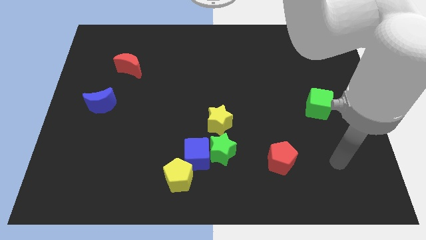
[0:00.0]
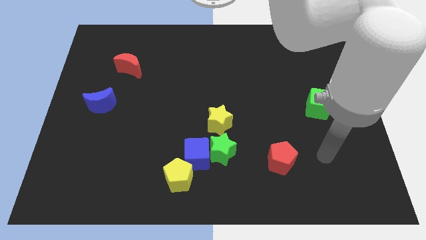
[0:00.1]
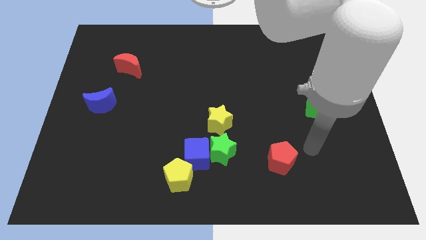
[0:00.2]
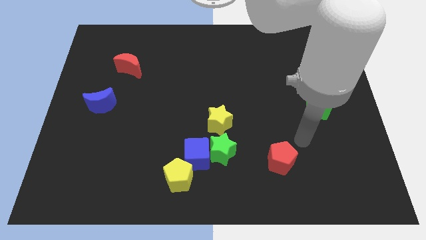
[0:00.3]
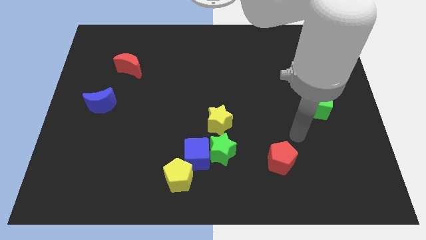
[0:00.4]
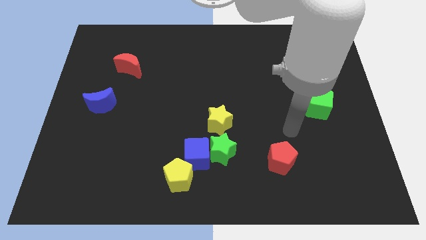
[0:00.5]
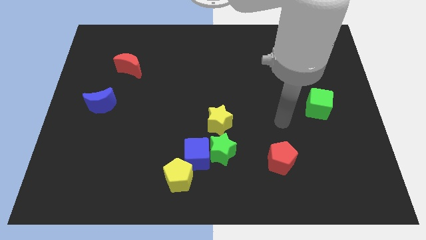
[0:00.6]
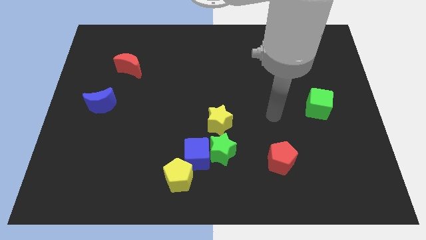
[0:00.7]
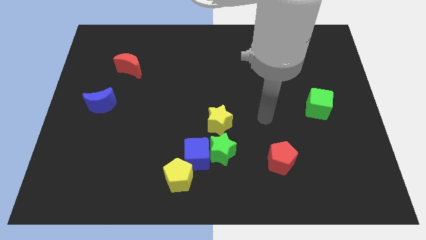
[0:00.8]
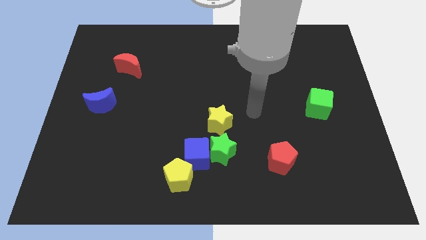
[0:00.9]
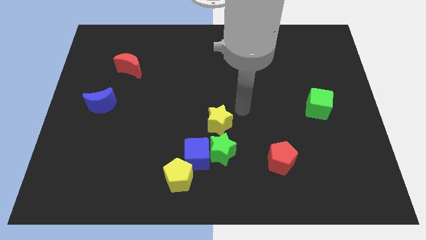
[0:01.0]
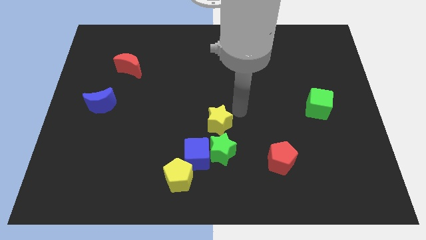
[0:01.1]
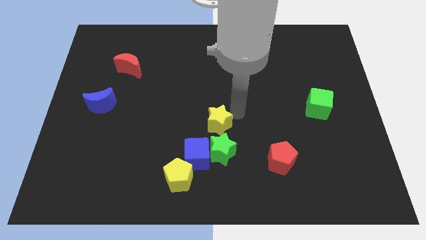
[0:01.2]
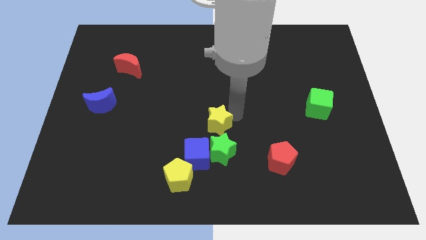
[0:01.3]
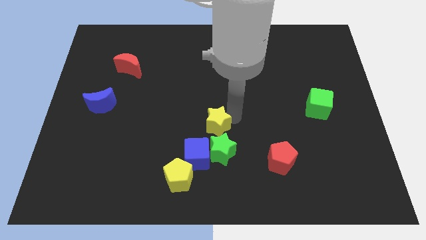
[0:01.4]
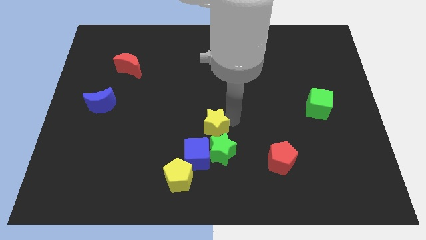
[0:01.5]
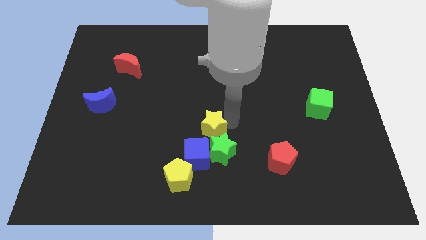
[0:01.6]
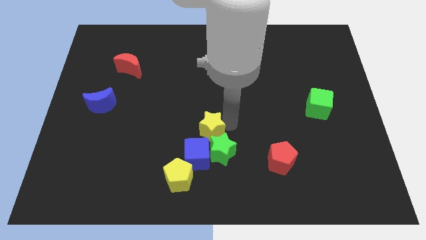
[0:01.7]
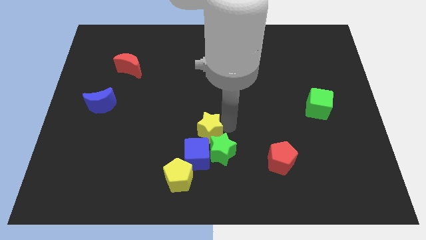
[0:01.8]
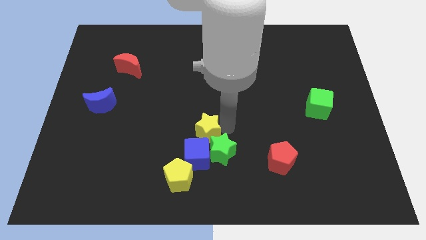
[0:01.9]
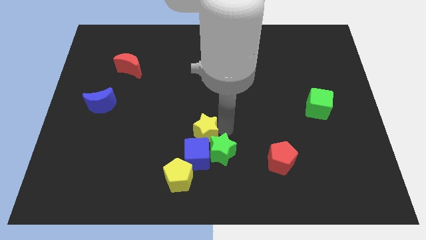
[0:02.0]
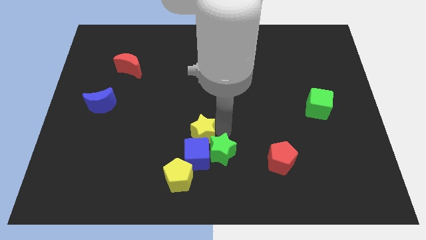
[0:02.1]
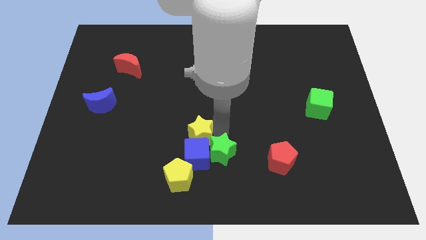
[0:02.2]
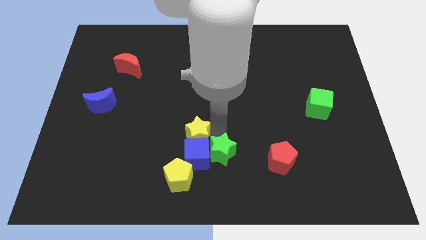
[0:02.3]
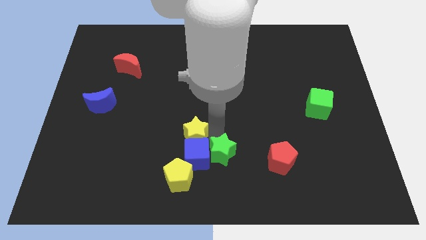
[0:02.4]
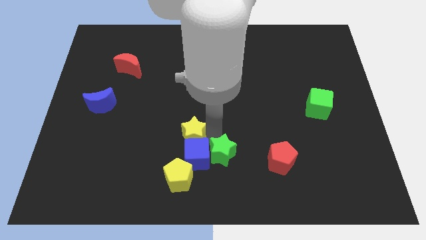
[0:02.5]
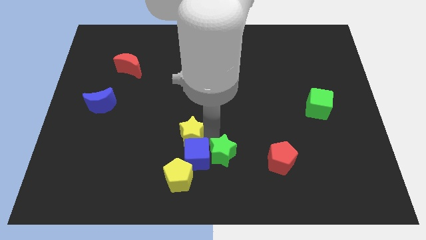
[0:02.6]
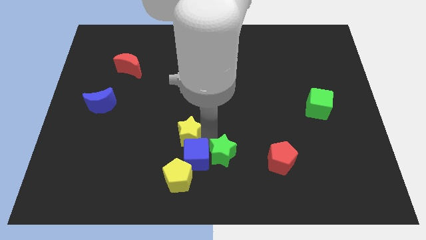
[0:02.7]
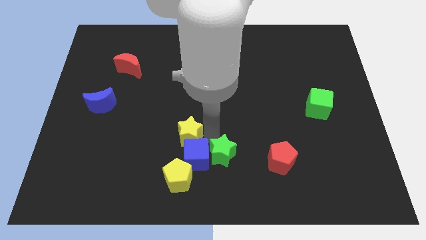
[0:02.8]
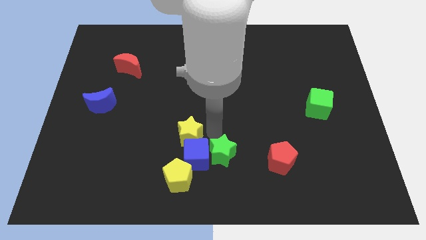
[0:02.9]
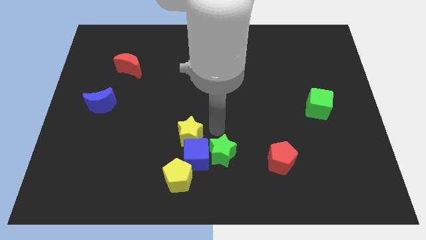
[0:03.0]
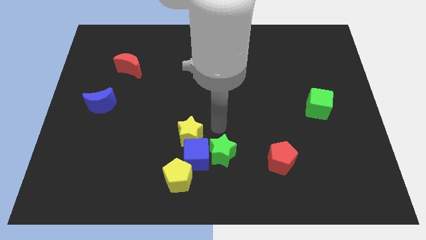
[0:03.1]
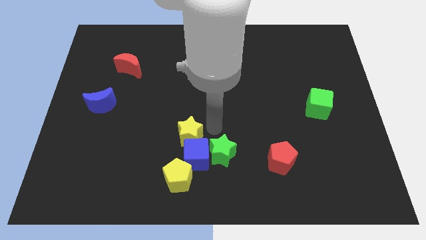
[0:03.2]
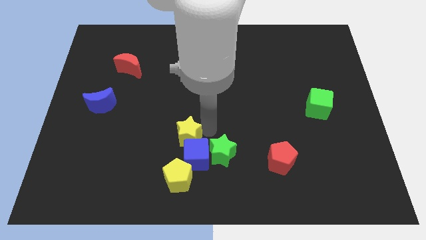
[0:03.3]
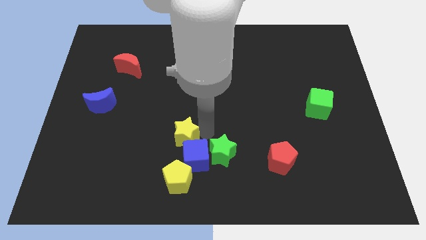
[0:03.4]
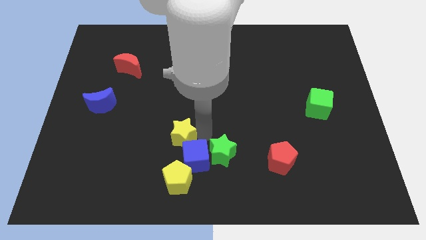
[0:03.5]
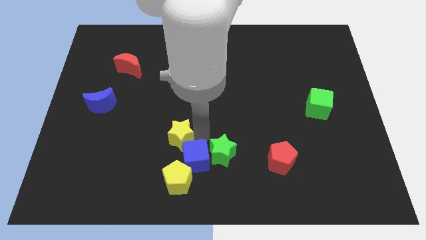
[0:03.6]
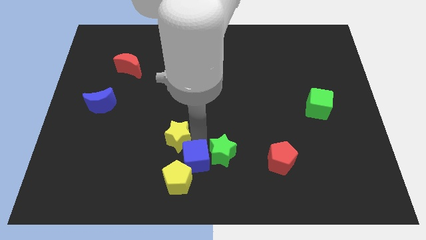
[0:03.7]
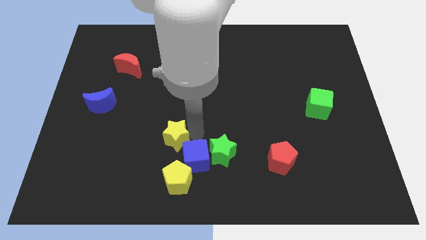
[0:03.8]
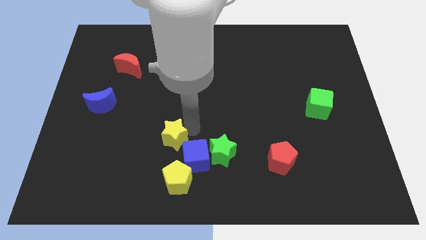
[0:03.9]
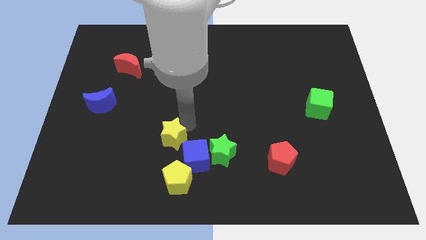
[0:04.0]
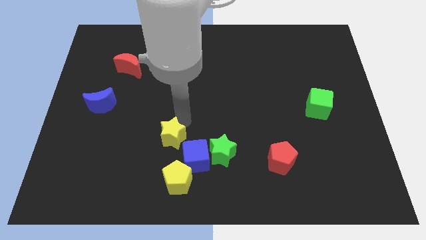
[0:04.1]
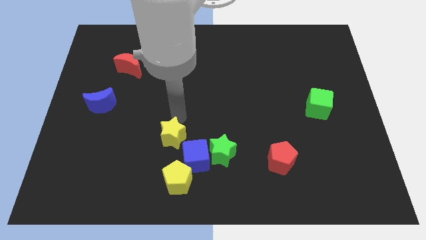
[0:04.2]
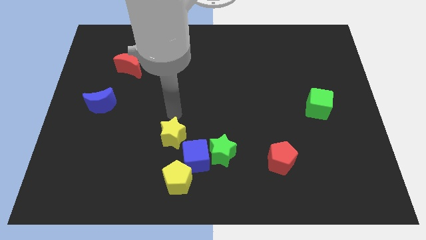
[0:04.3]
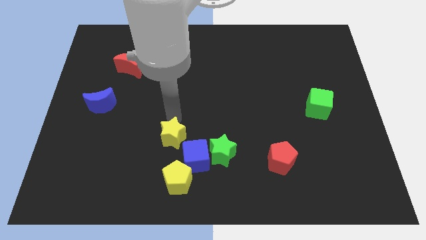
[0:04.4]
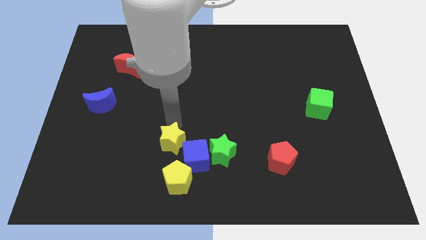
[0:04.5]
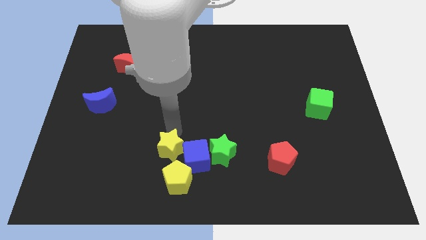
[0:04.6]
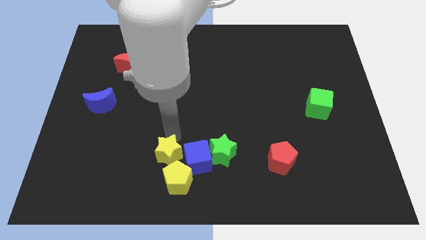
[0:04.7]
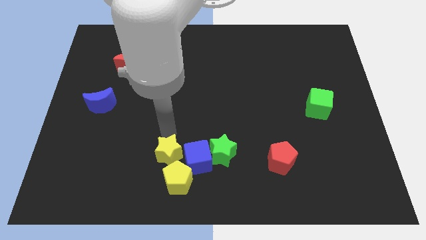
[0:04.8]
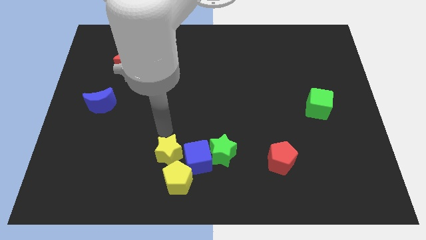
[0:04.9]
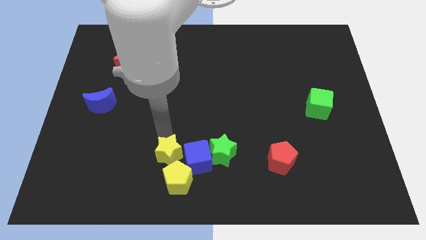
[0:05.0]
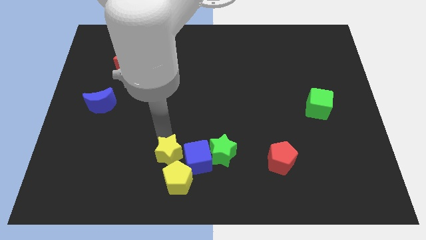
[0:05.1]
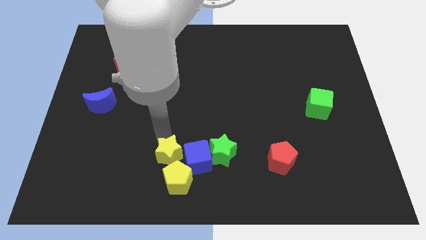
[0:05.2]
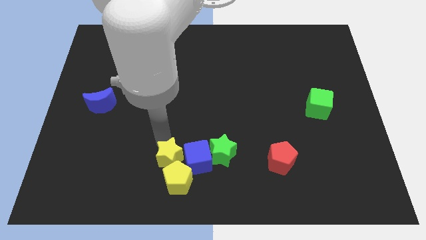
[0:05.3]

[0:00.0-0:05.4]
push the yellow star towards the yellow pentagon

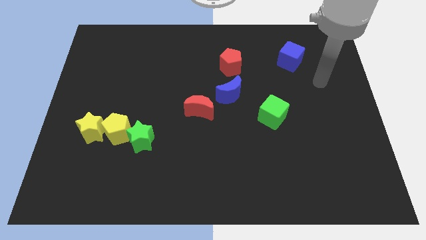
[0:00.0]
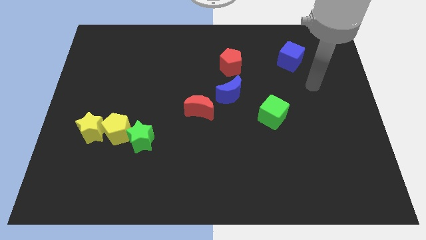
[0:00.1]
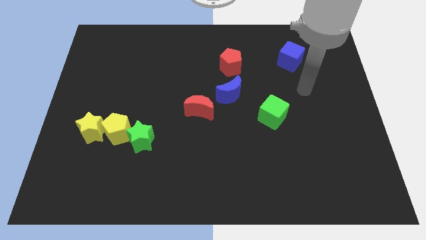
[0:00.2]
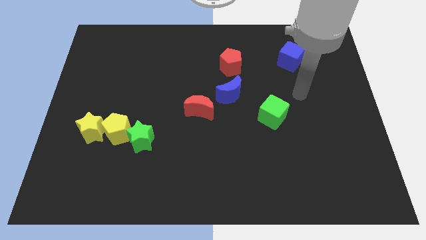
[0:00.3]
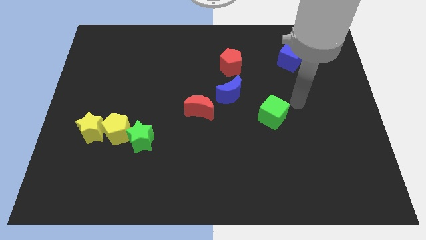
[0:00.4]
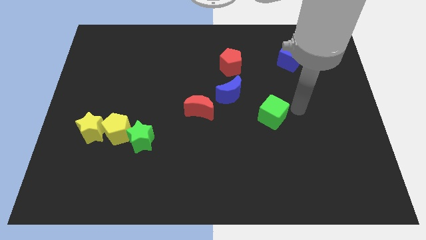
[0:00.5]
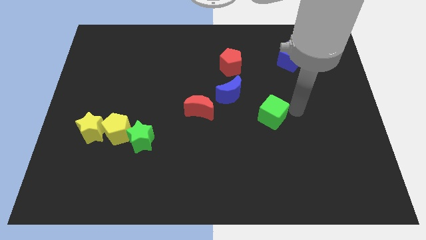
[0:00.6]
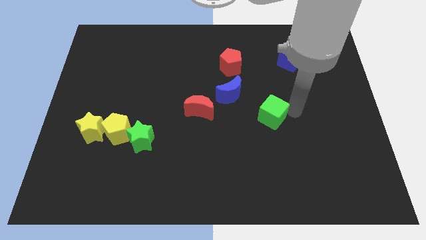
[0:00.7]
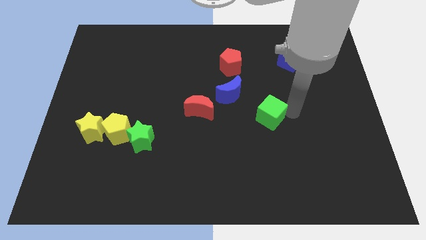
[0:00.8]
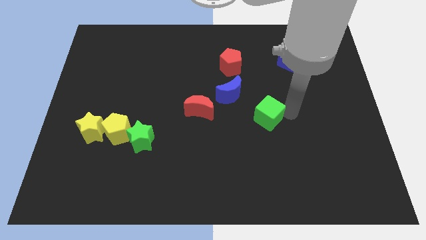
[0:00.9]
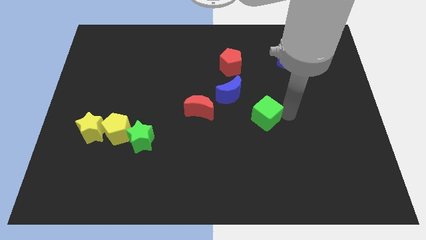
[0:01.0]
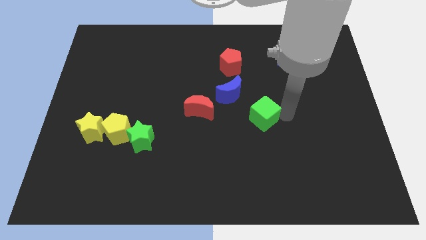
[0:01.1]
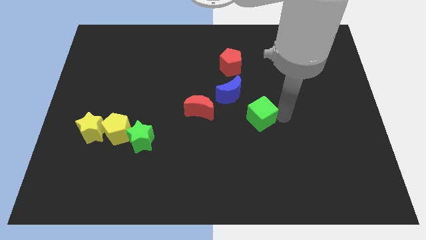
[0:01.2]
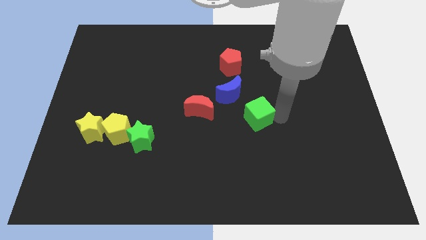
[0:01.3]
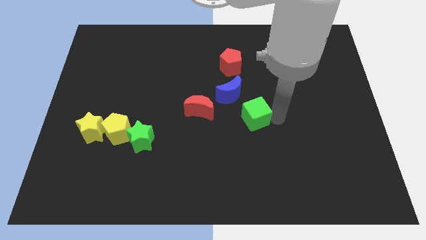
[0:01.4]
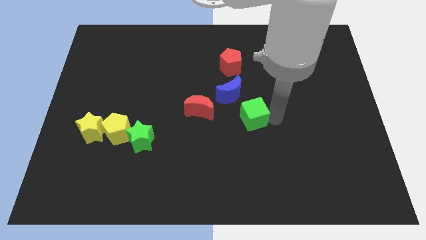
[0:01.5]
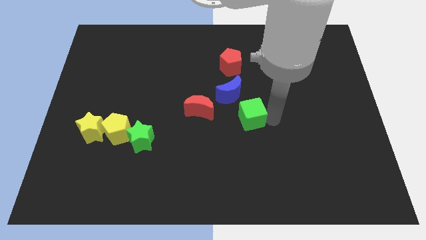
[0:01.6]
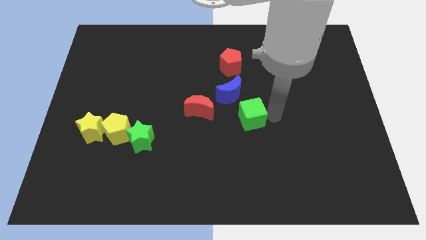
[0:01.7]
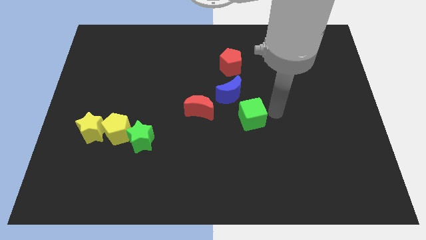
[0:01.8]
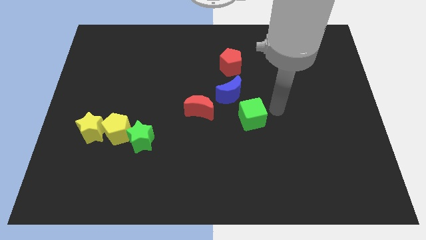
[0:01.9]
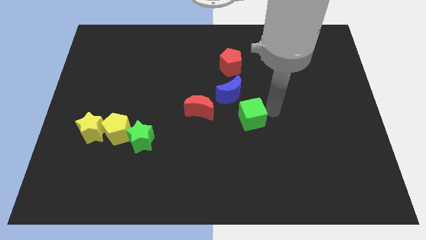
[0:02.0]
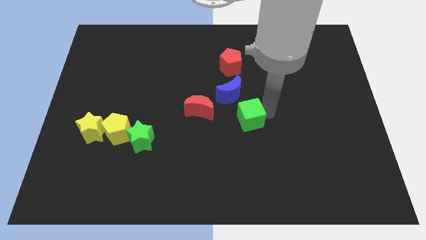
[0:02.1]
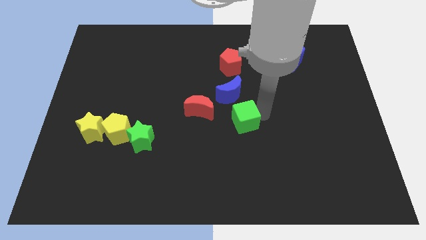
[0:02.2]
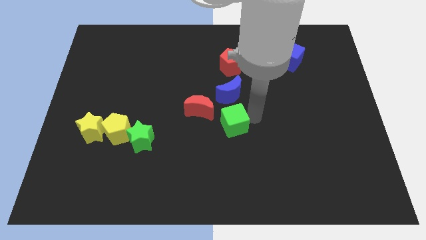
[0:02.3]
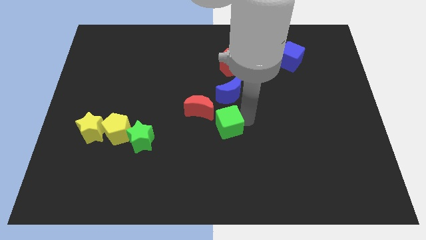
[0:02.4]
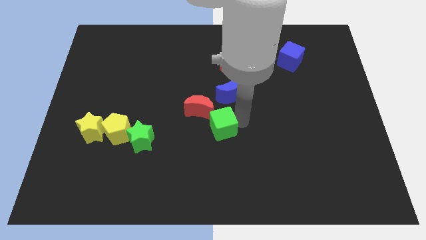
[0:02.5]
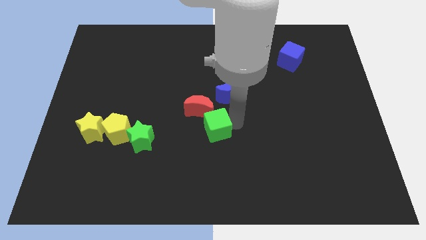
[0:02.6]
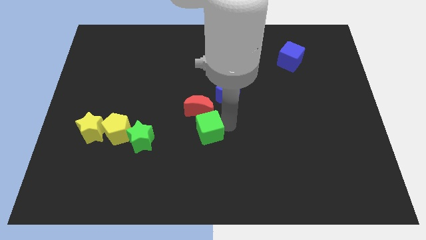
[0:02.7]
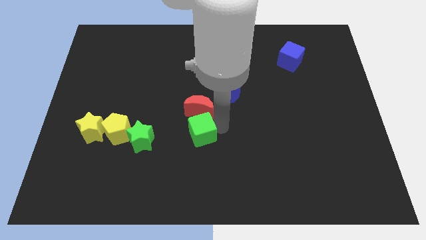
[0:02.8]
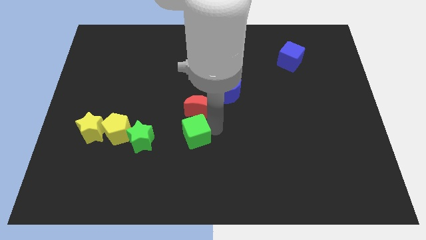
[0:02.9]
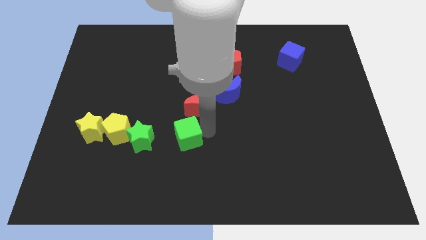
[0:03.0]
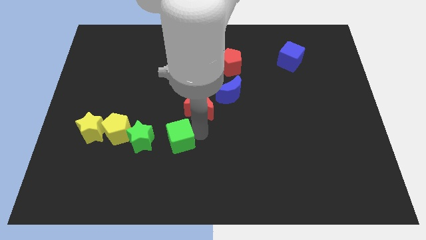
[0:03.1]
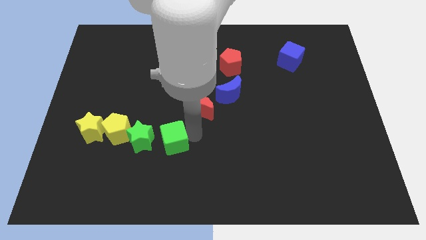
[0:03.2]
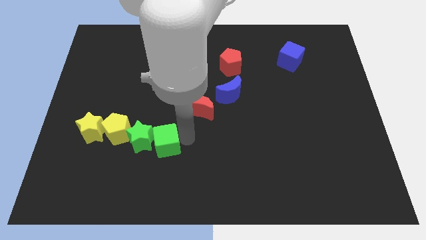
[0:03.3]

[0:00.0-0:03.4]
put the green cube next to the green star
